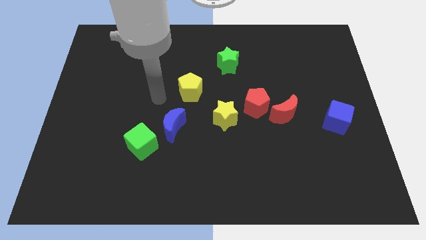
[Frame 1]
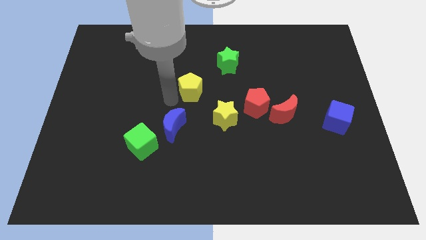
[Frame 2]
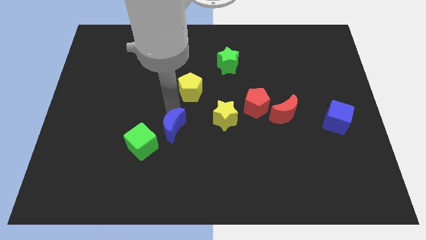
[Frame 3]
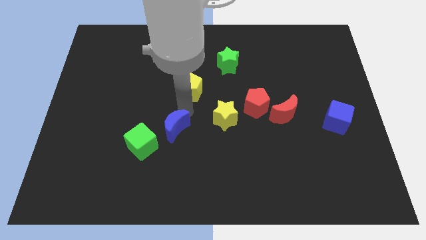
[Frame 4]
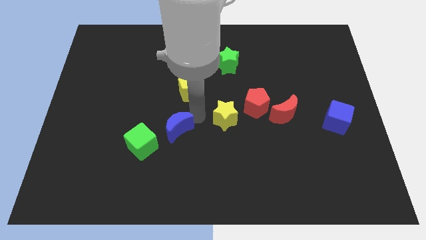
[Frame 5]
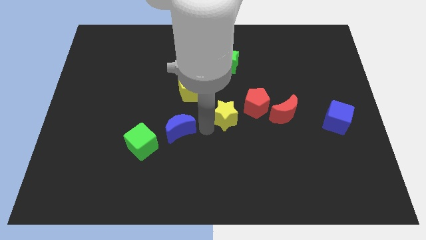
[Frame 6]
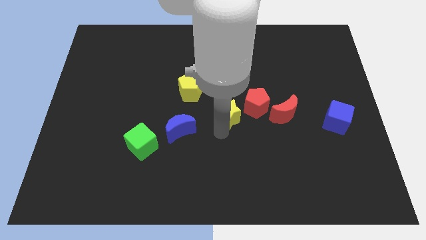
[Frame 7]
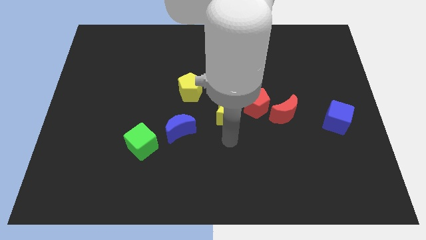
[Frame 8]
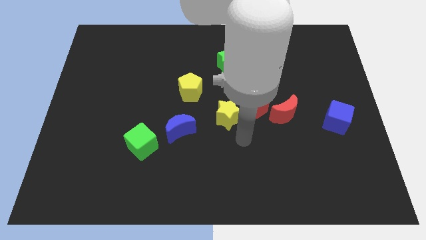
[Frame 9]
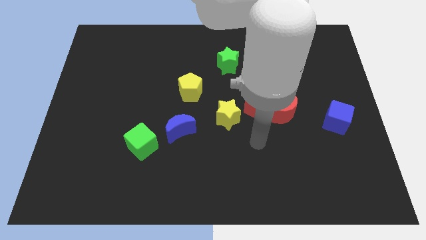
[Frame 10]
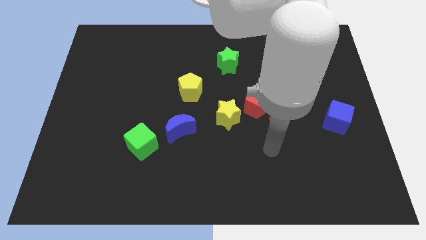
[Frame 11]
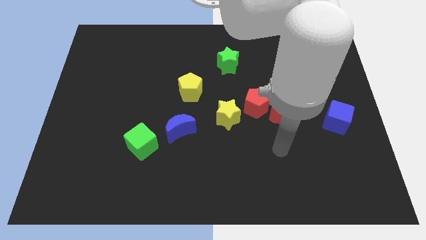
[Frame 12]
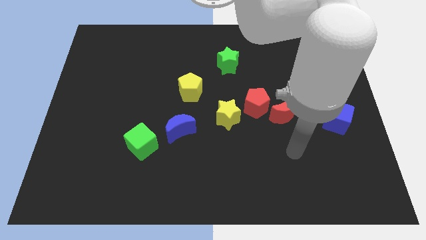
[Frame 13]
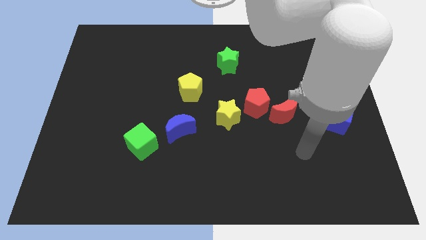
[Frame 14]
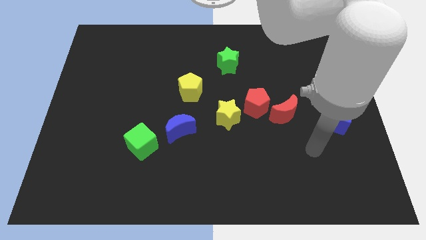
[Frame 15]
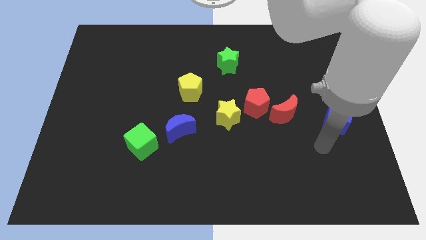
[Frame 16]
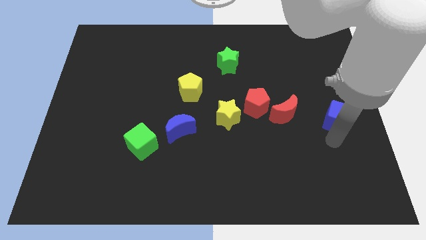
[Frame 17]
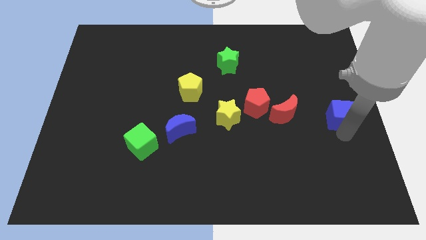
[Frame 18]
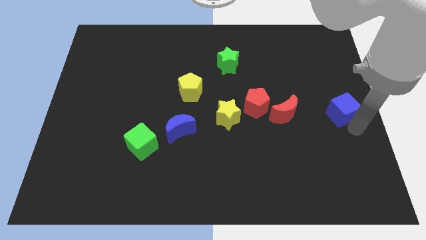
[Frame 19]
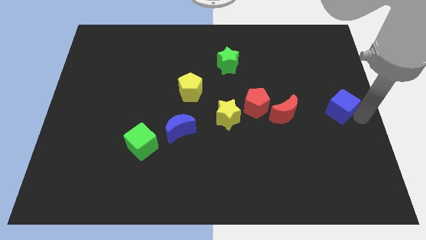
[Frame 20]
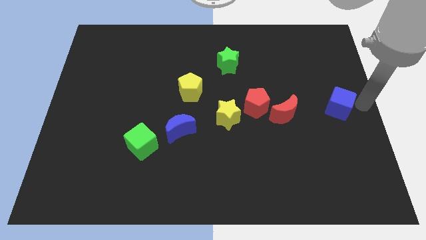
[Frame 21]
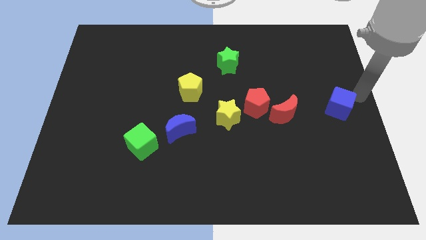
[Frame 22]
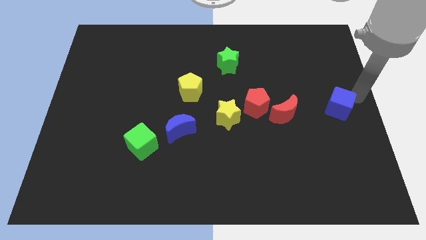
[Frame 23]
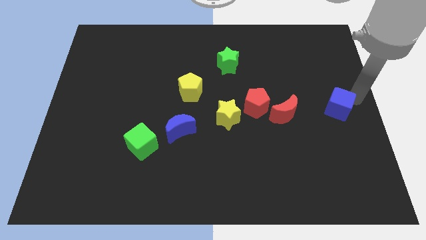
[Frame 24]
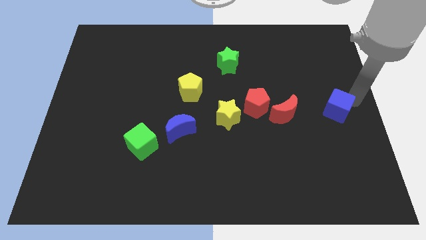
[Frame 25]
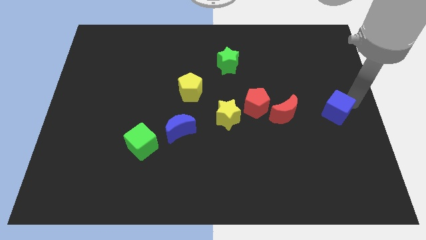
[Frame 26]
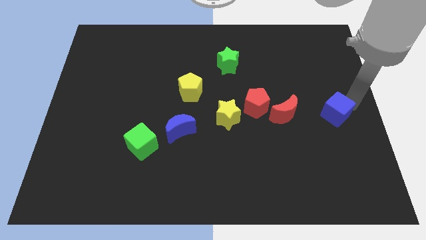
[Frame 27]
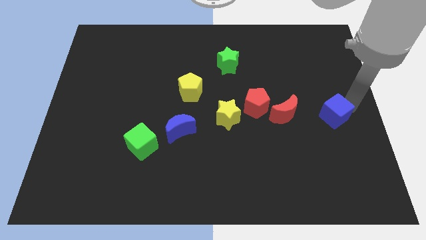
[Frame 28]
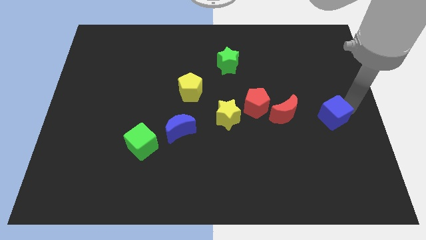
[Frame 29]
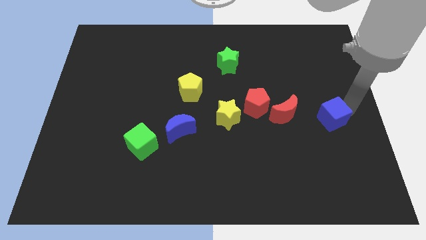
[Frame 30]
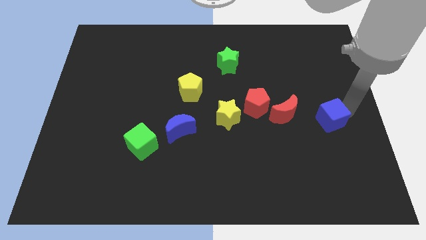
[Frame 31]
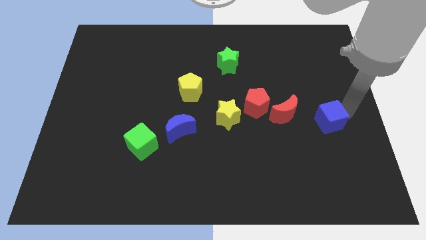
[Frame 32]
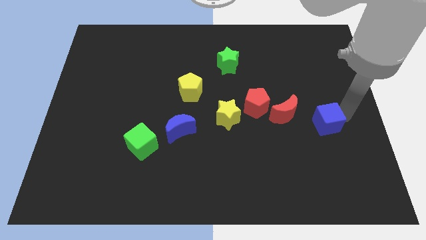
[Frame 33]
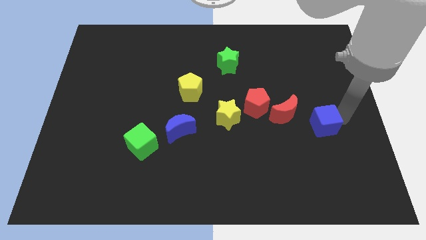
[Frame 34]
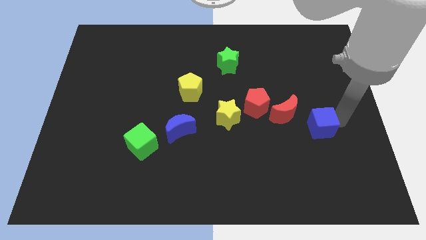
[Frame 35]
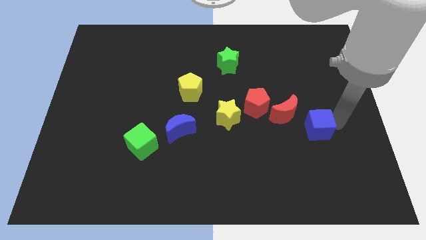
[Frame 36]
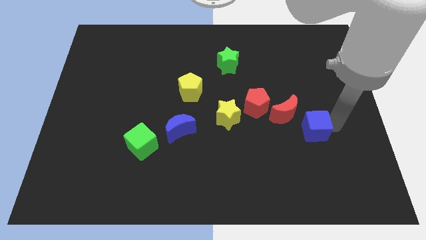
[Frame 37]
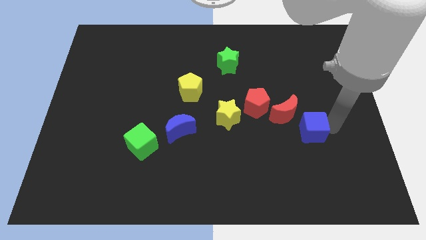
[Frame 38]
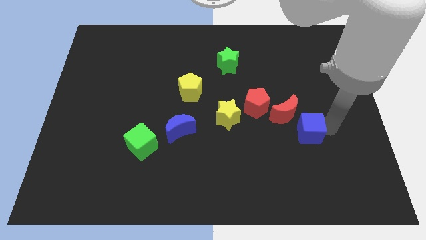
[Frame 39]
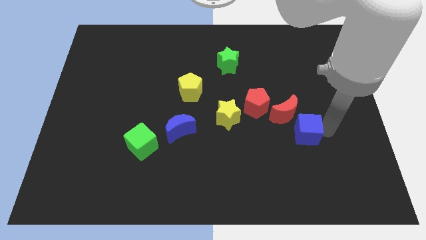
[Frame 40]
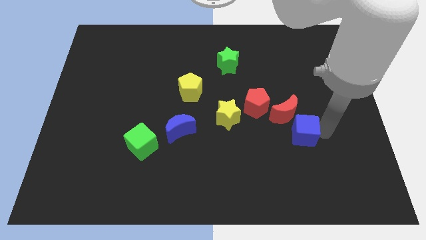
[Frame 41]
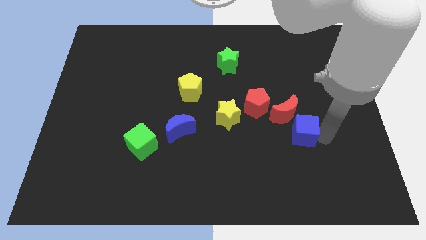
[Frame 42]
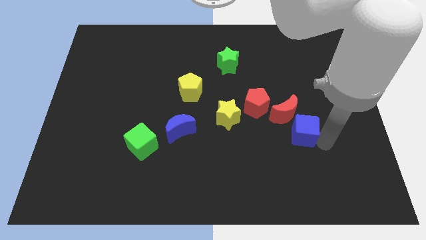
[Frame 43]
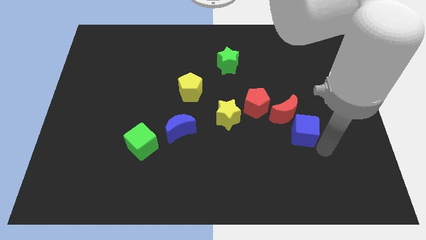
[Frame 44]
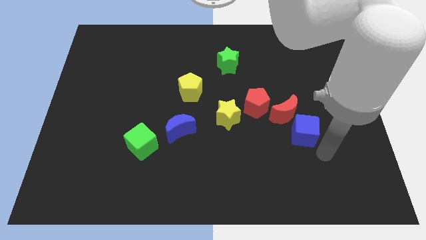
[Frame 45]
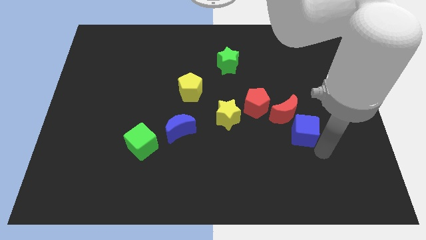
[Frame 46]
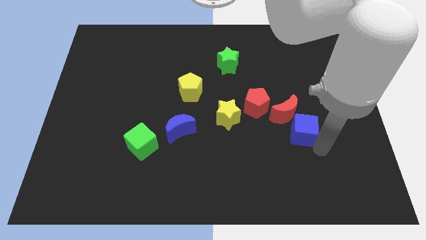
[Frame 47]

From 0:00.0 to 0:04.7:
slide the blue cube next to the red moon

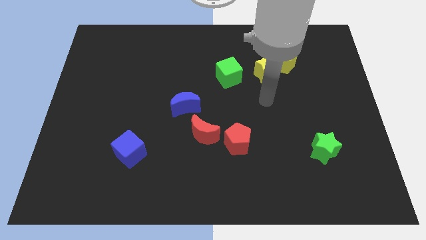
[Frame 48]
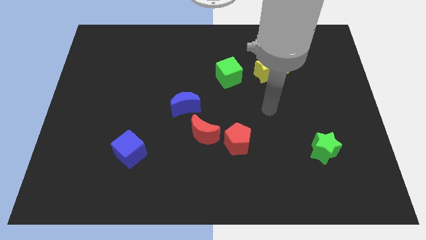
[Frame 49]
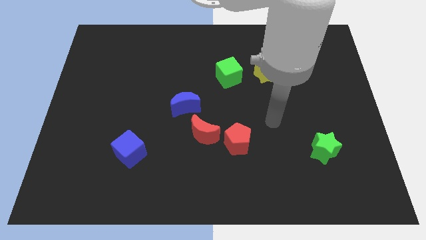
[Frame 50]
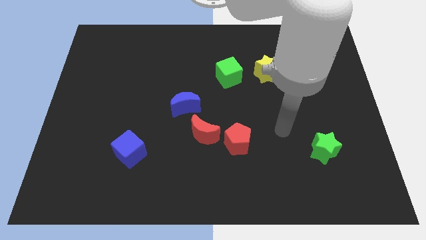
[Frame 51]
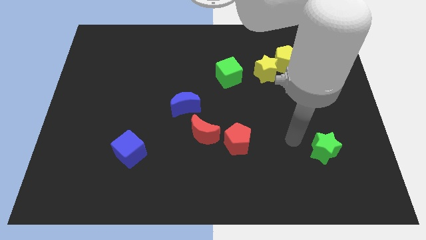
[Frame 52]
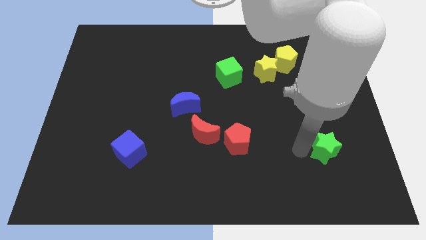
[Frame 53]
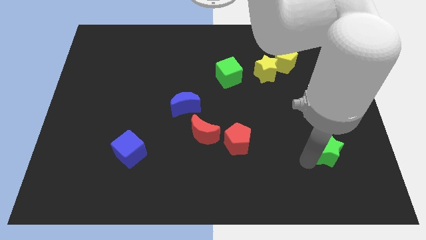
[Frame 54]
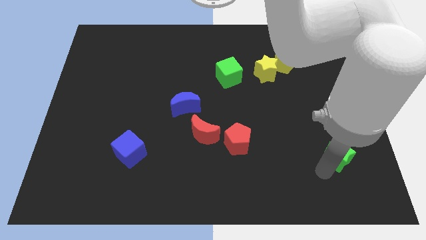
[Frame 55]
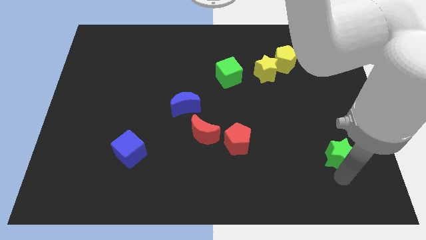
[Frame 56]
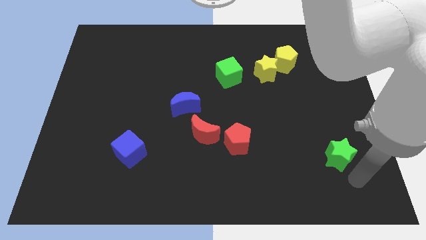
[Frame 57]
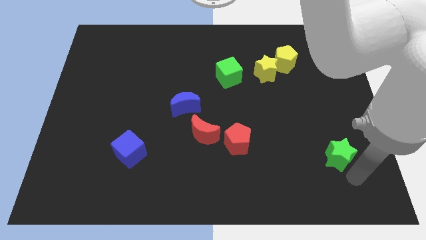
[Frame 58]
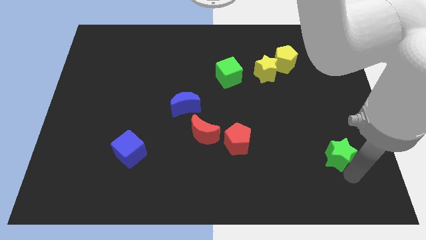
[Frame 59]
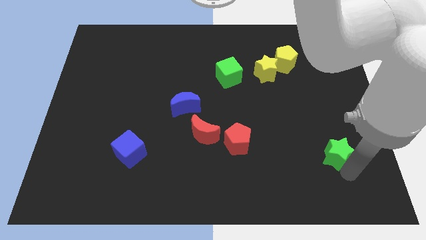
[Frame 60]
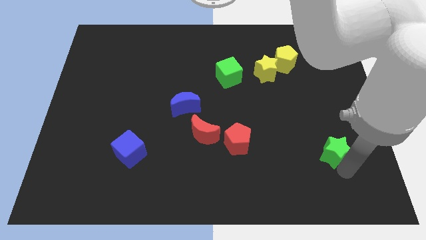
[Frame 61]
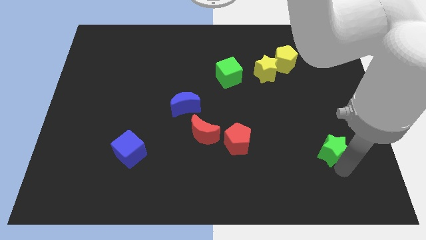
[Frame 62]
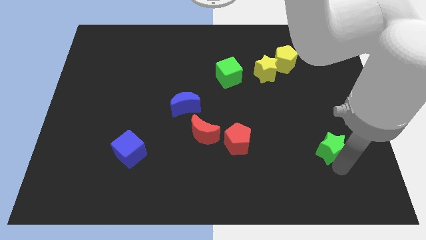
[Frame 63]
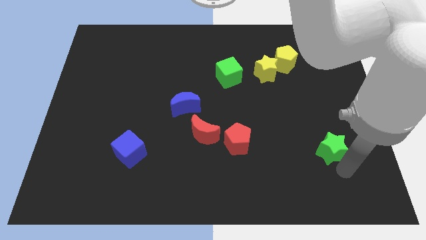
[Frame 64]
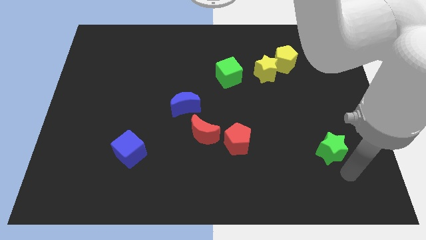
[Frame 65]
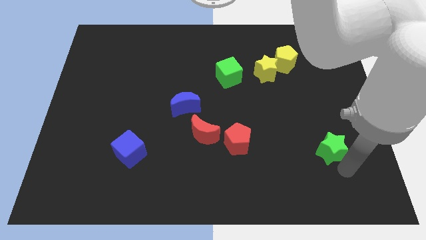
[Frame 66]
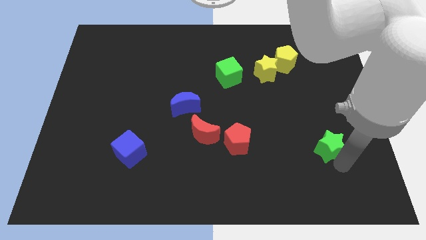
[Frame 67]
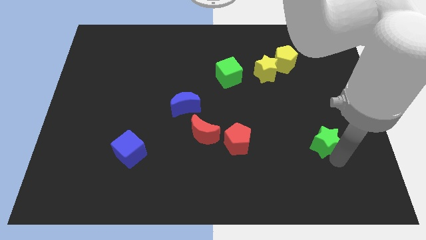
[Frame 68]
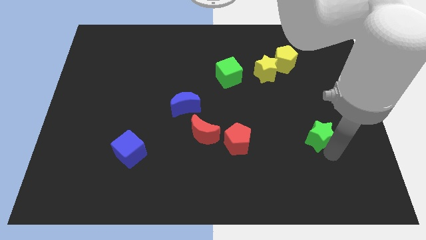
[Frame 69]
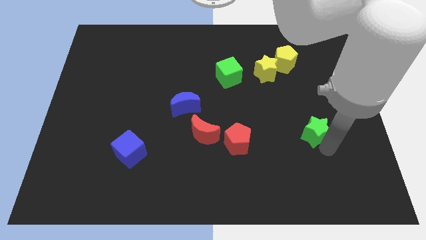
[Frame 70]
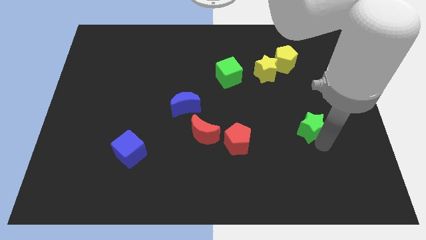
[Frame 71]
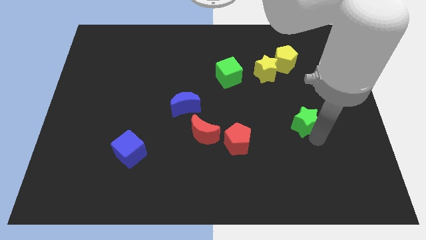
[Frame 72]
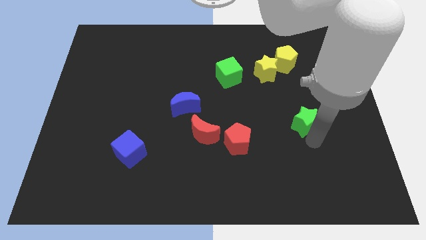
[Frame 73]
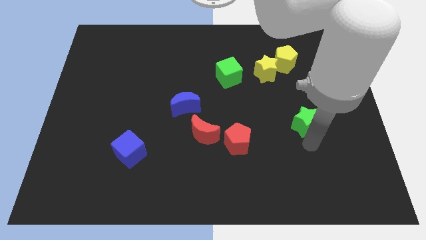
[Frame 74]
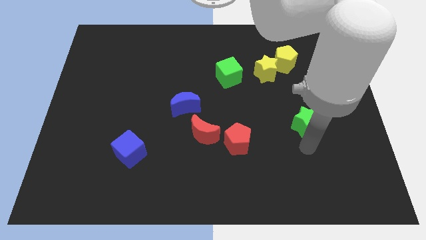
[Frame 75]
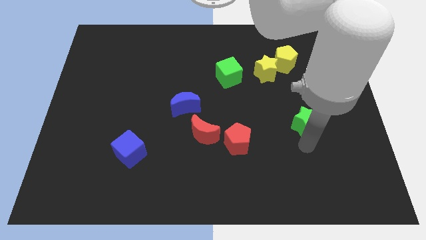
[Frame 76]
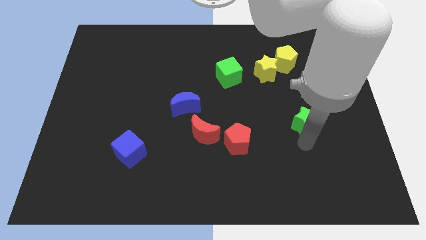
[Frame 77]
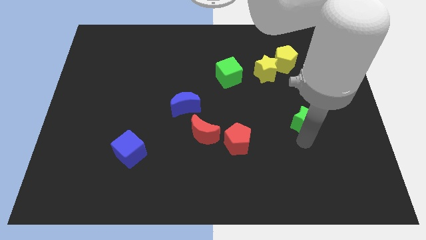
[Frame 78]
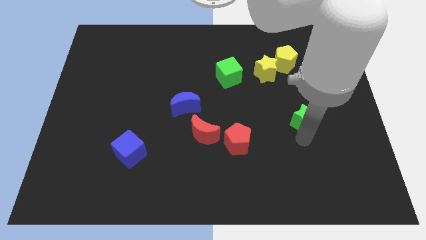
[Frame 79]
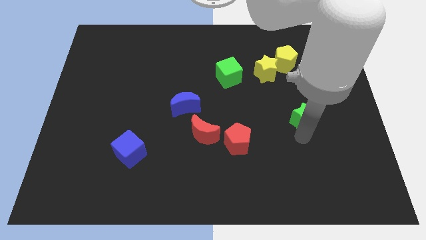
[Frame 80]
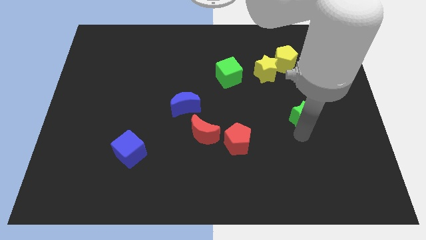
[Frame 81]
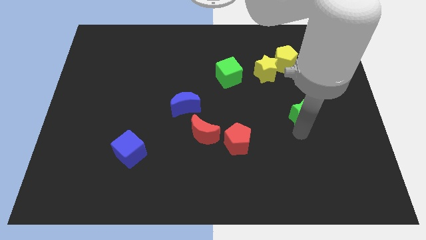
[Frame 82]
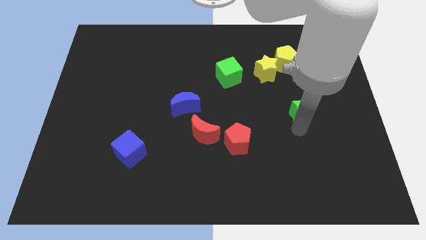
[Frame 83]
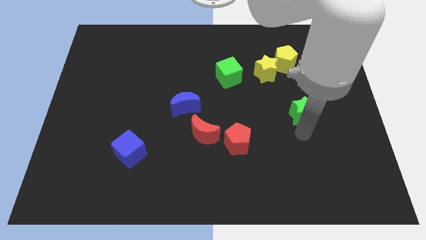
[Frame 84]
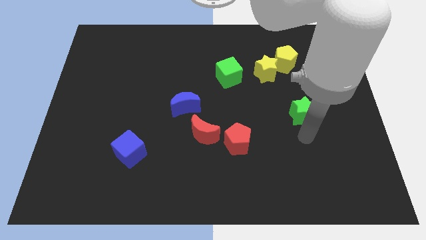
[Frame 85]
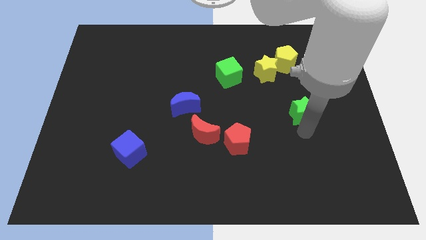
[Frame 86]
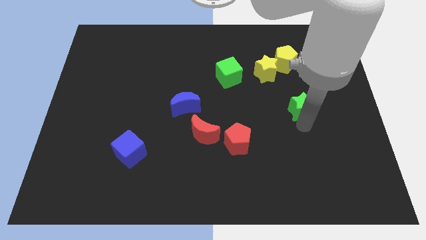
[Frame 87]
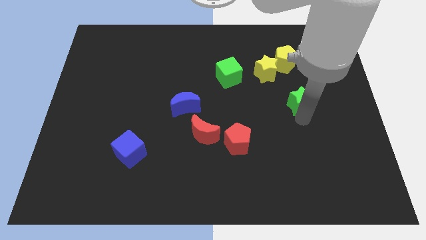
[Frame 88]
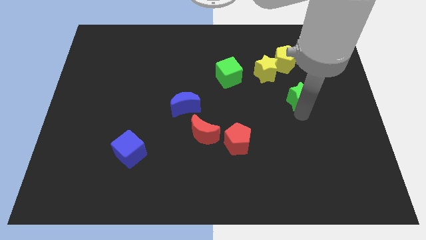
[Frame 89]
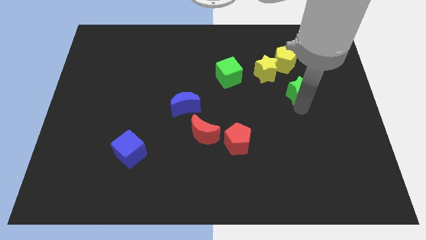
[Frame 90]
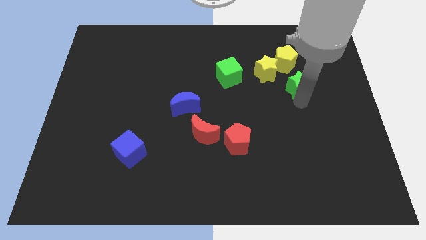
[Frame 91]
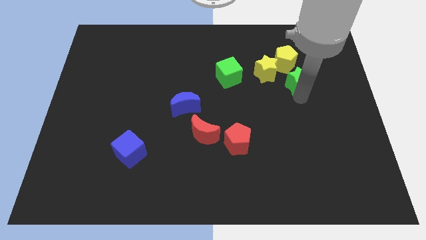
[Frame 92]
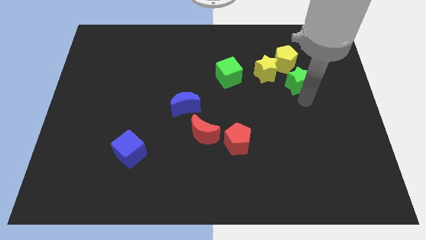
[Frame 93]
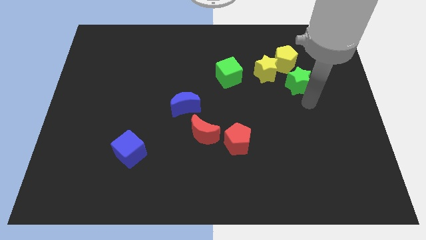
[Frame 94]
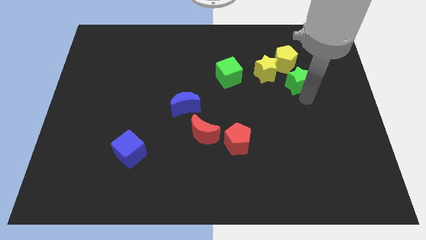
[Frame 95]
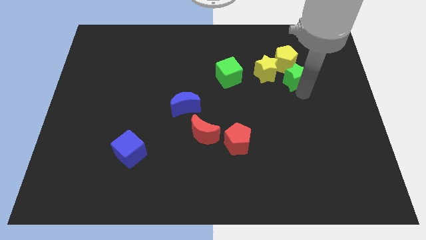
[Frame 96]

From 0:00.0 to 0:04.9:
slide the green star close to the yellow pentagon
